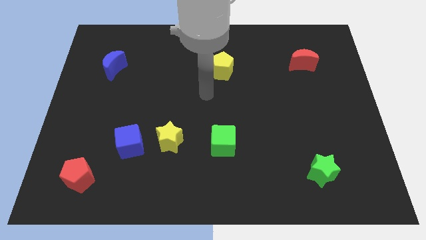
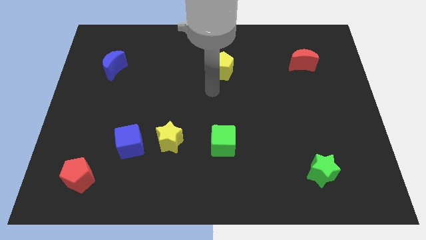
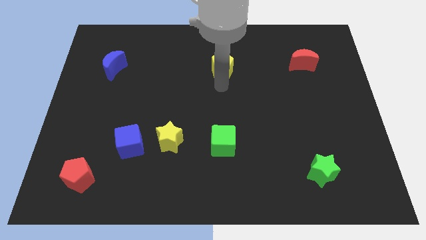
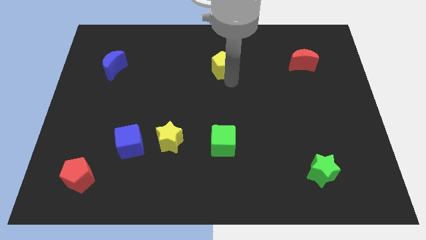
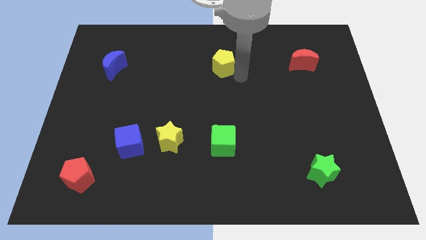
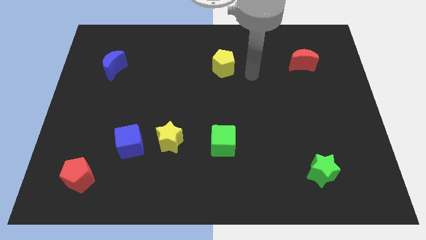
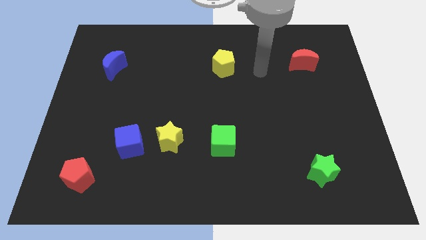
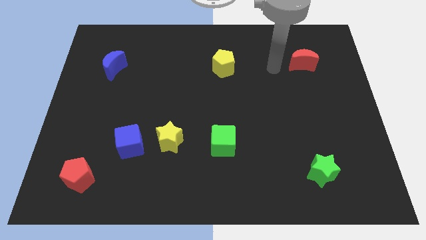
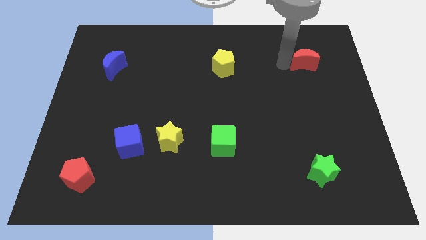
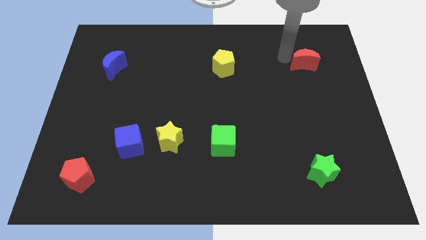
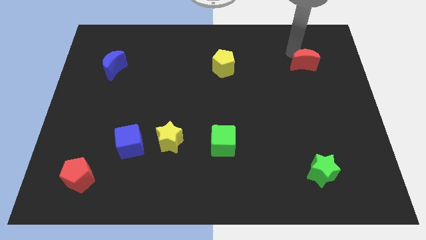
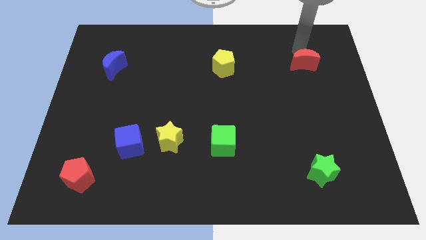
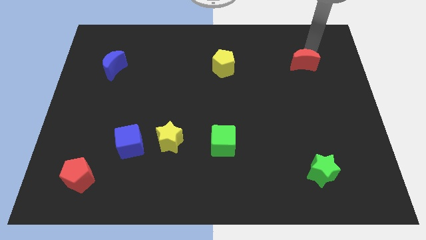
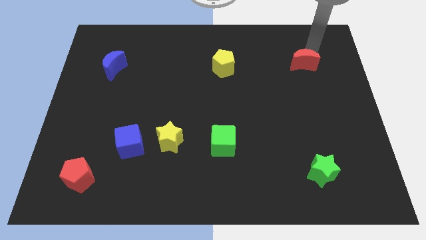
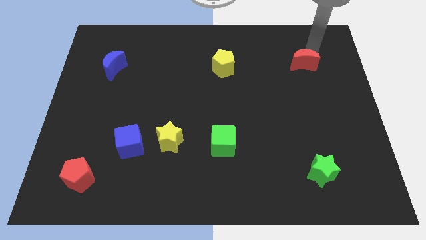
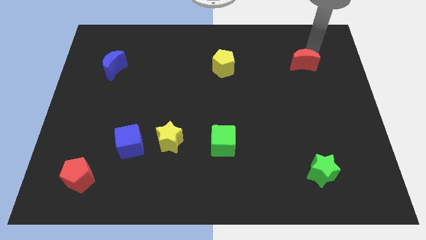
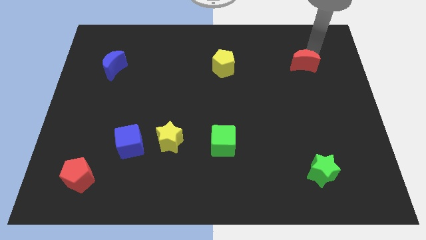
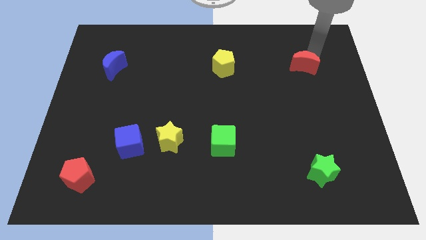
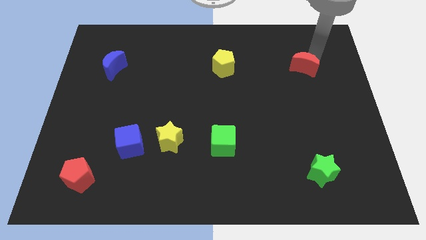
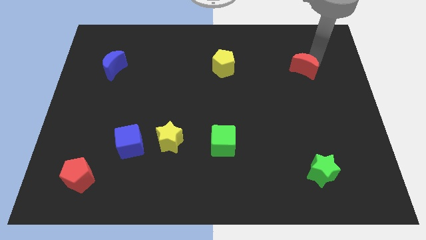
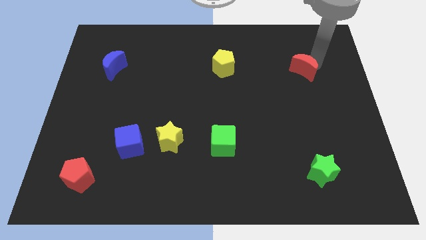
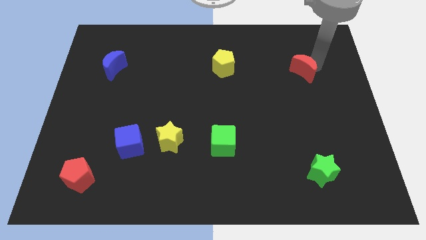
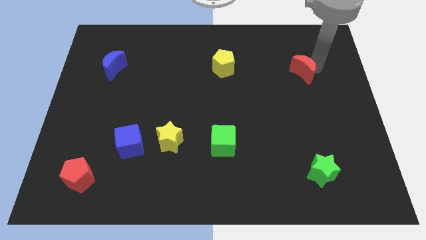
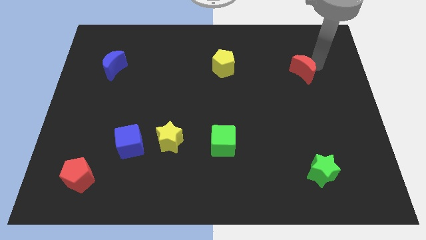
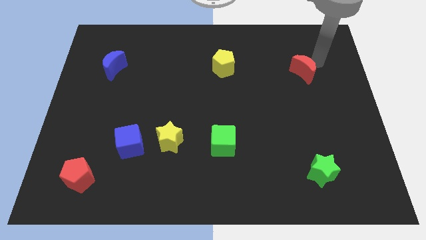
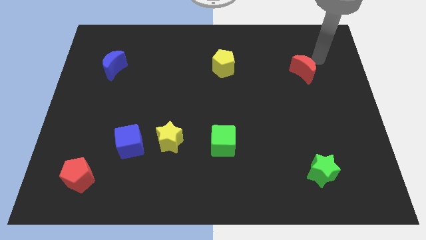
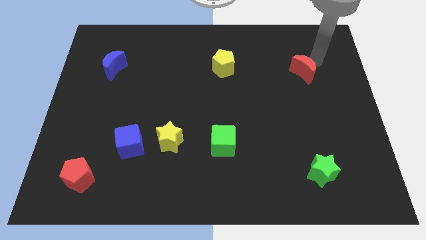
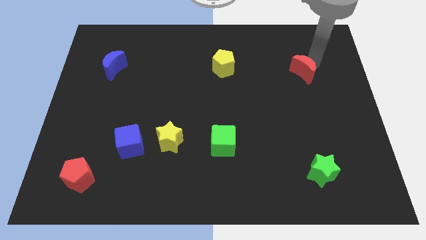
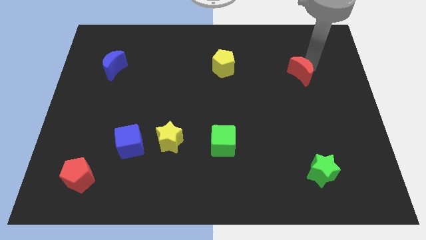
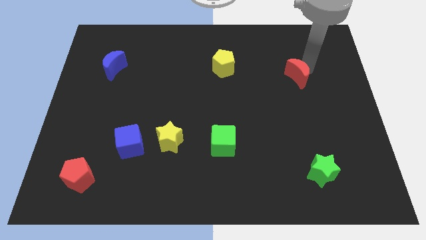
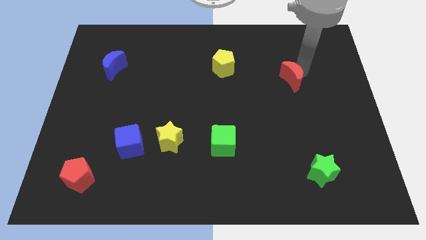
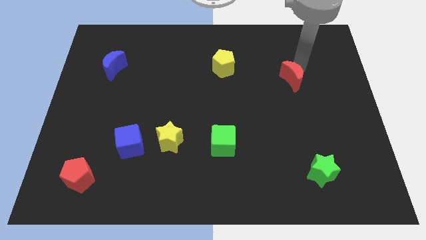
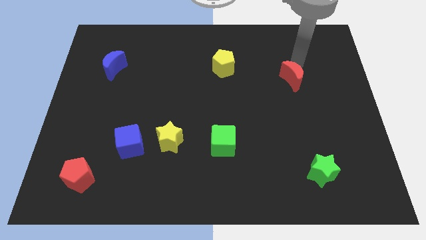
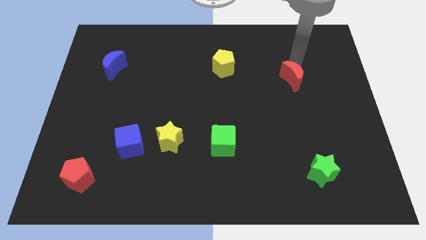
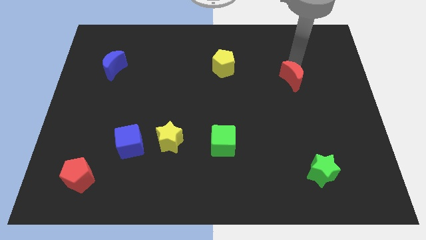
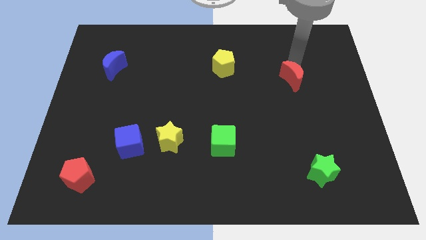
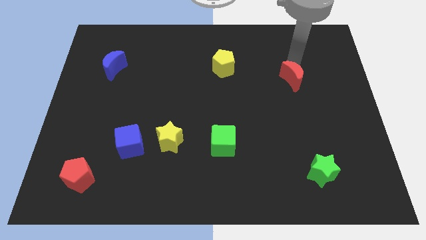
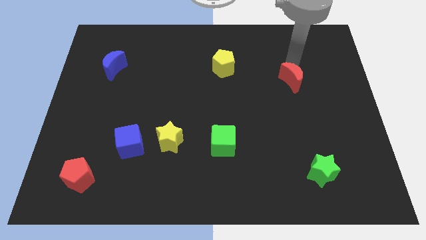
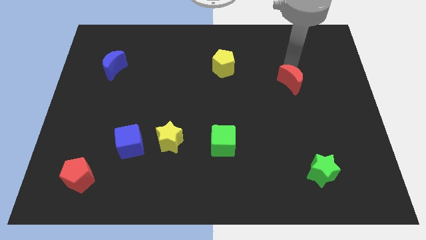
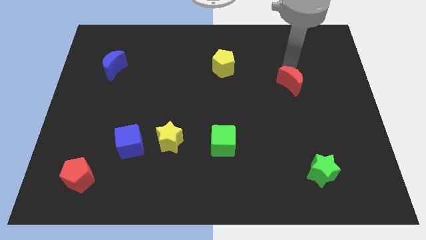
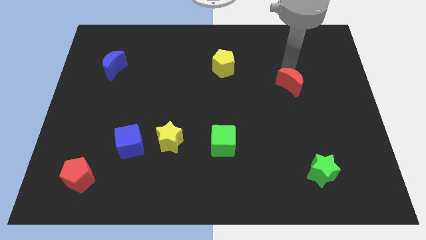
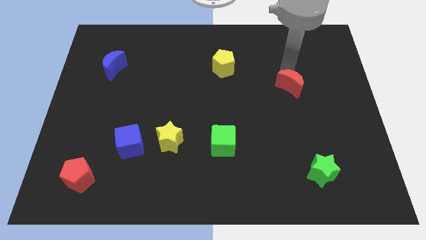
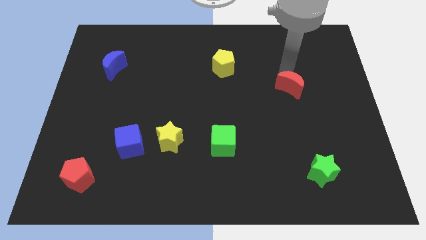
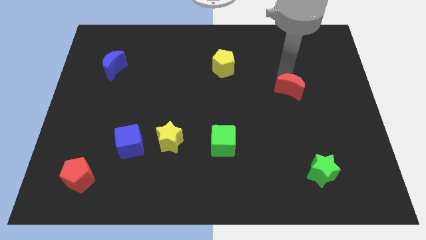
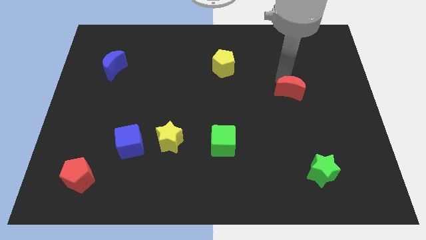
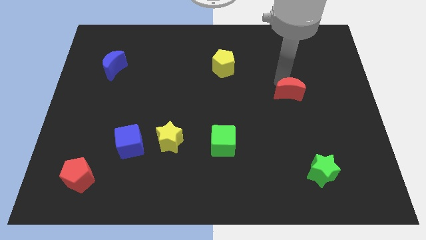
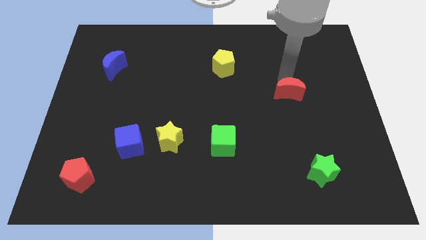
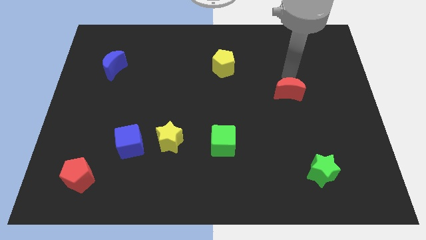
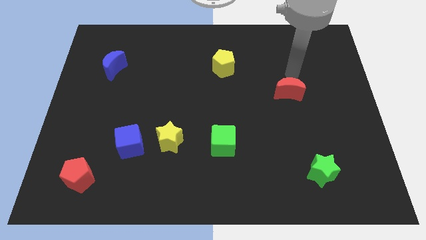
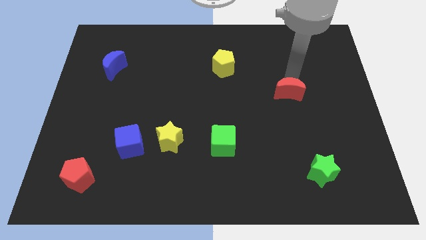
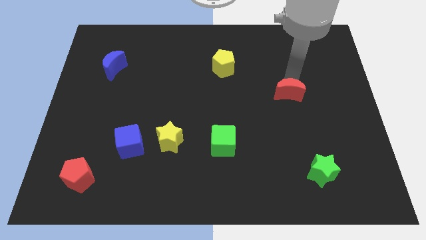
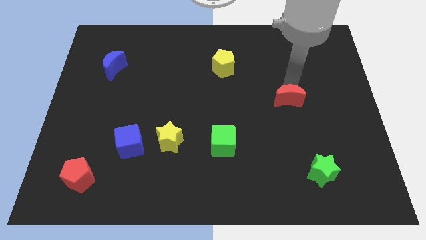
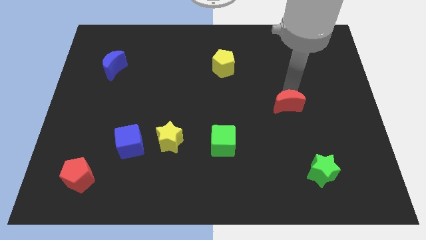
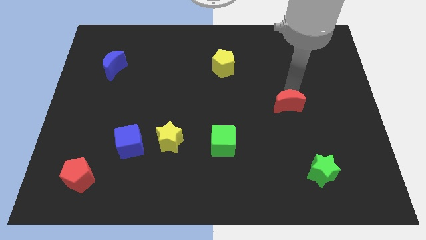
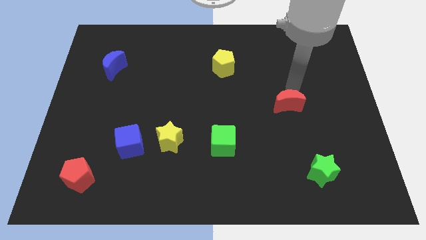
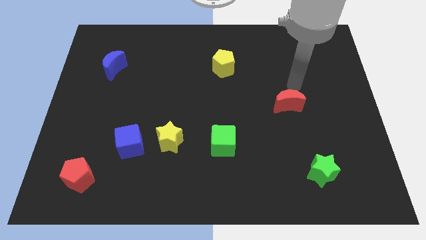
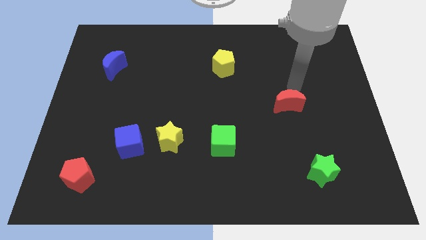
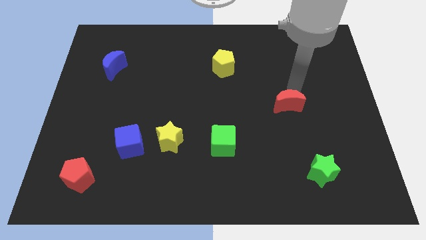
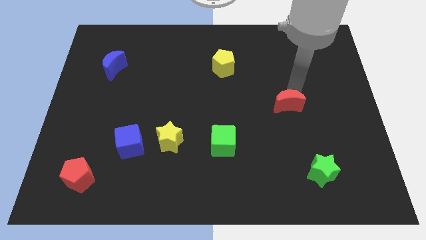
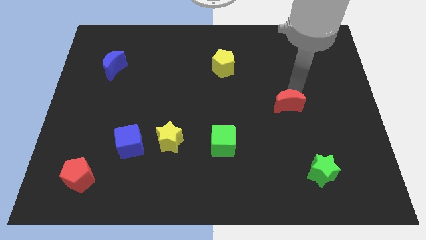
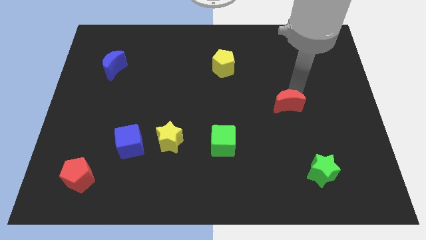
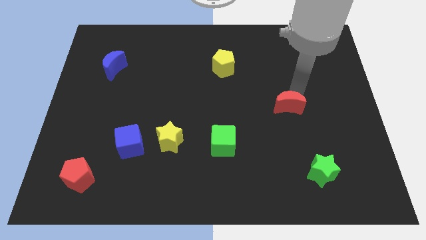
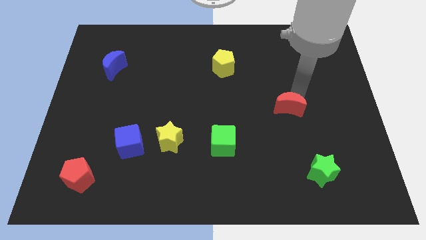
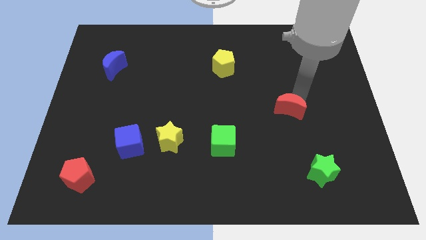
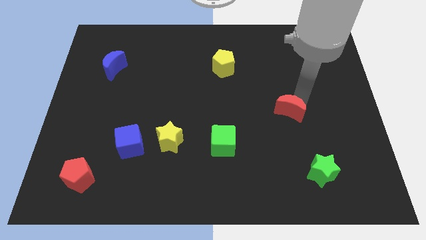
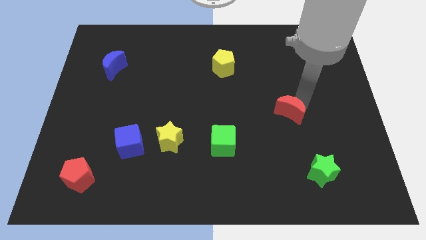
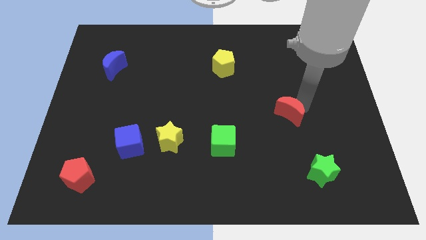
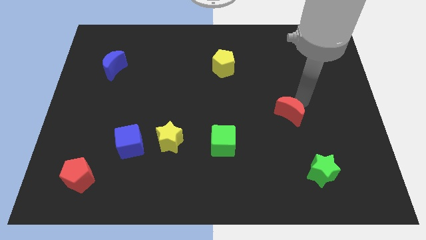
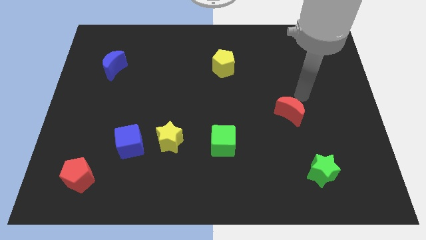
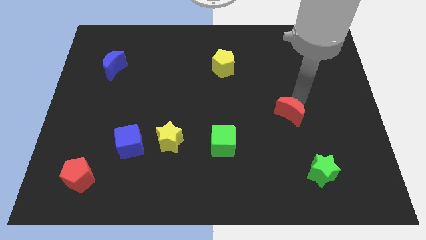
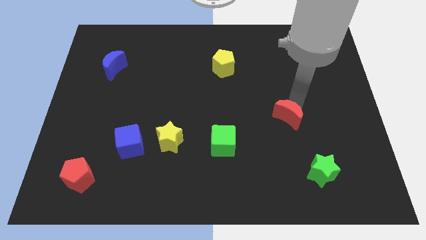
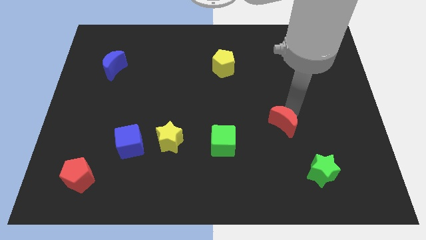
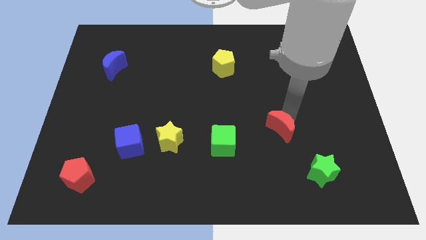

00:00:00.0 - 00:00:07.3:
put the red moon to the right side of the green cube
